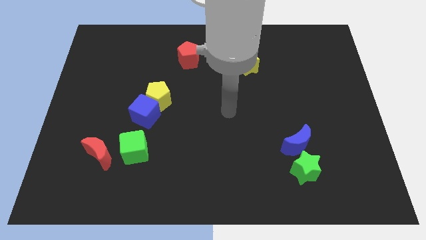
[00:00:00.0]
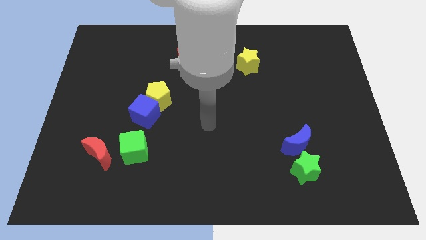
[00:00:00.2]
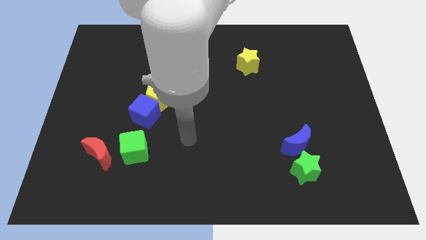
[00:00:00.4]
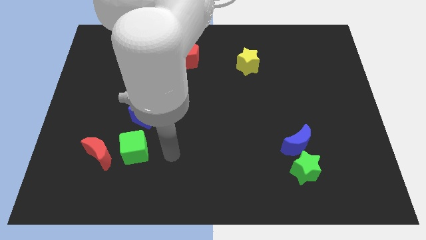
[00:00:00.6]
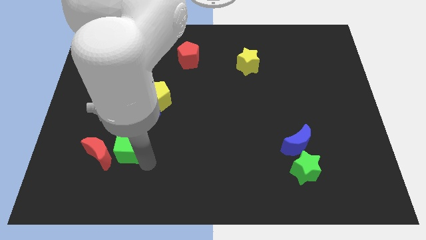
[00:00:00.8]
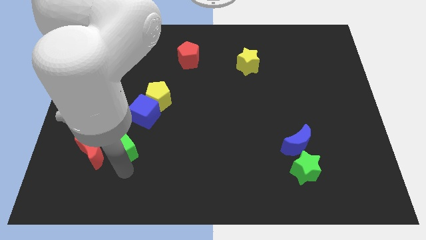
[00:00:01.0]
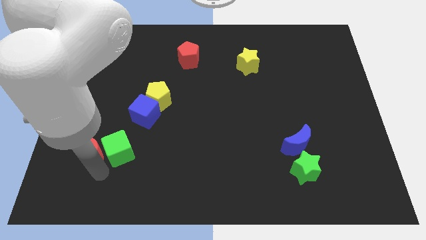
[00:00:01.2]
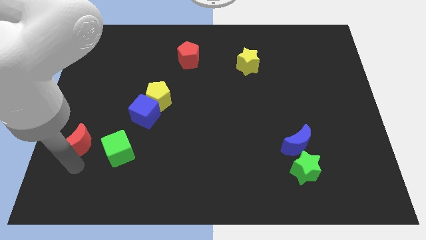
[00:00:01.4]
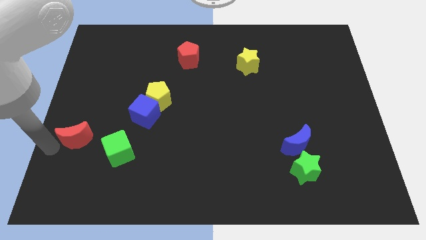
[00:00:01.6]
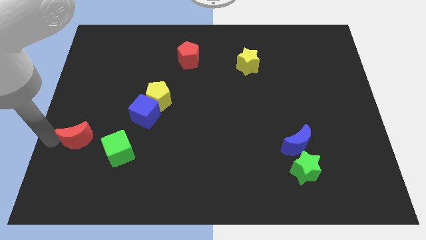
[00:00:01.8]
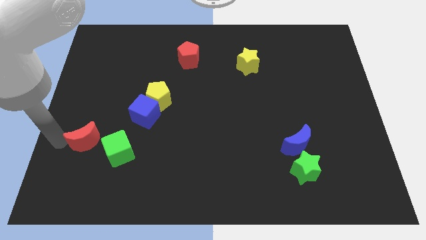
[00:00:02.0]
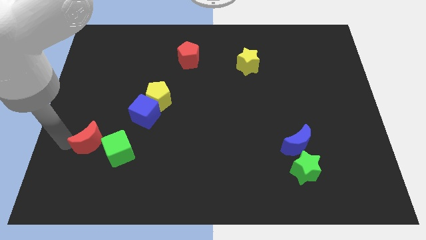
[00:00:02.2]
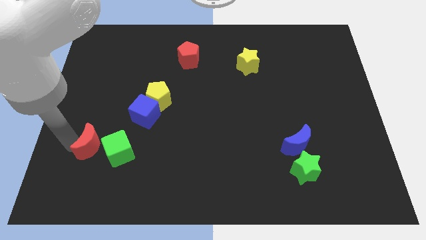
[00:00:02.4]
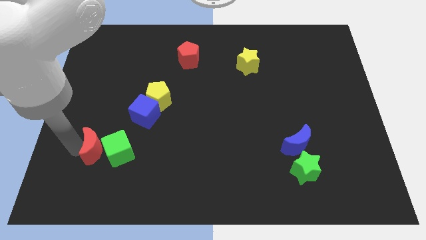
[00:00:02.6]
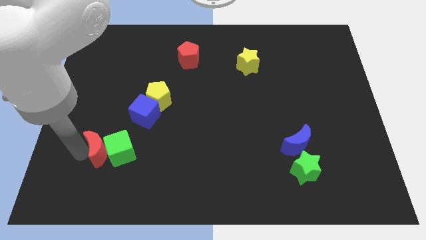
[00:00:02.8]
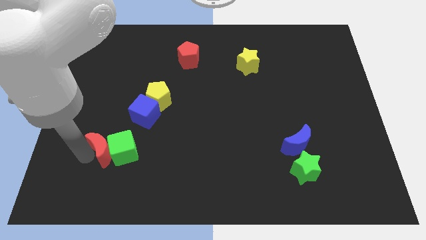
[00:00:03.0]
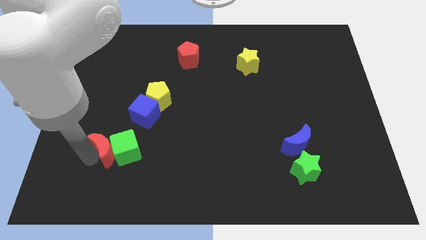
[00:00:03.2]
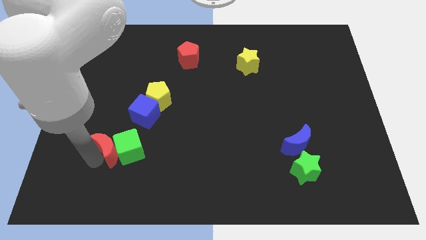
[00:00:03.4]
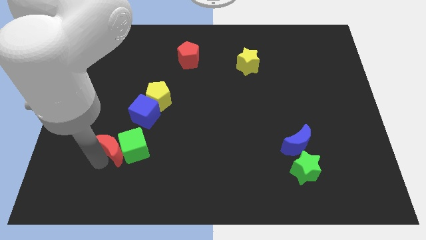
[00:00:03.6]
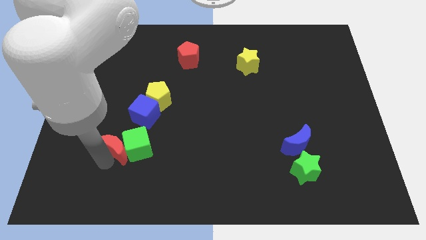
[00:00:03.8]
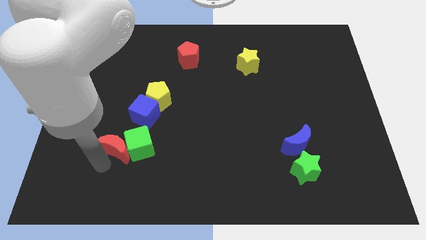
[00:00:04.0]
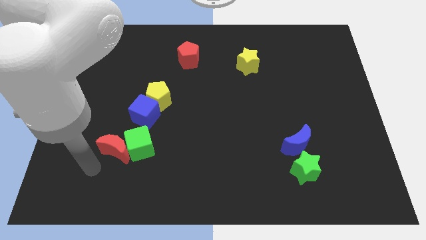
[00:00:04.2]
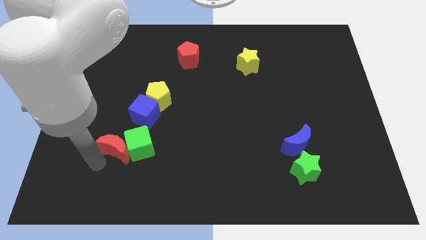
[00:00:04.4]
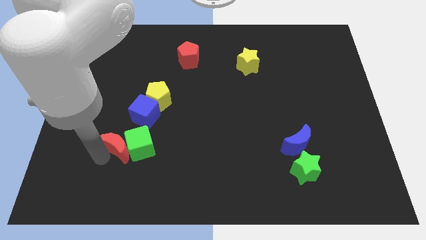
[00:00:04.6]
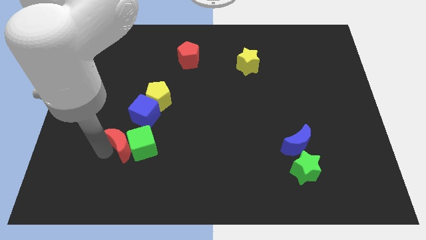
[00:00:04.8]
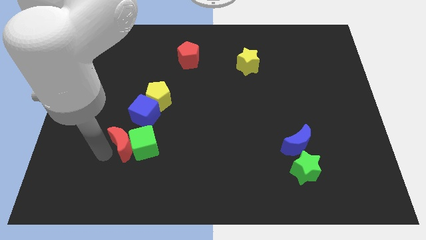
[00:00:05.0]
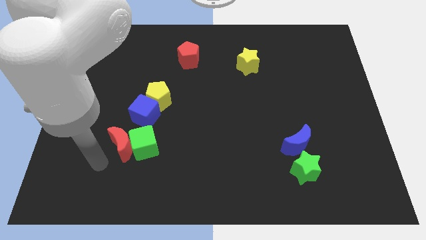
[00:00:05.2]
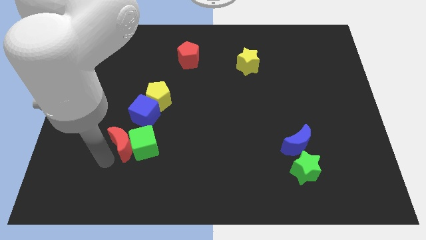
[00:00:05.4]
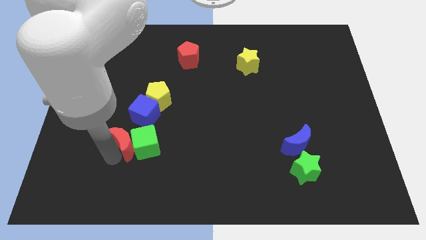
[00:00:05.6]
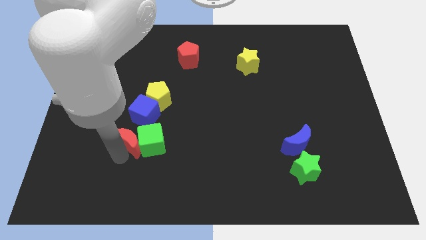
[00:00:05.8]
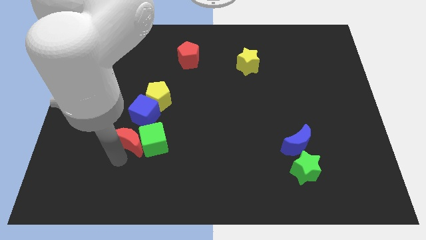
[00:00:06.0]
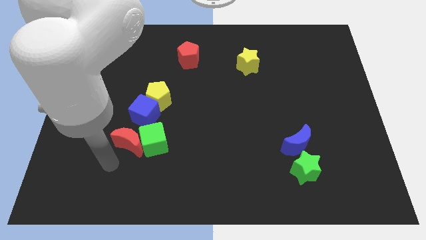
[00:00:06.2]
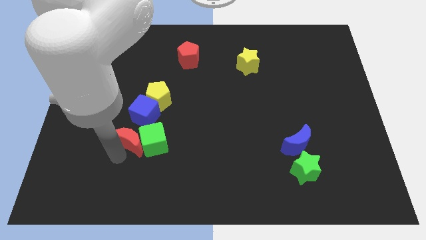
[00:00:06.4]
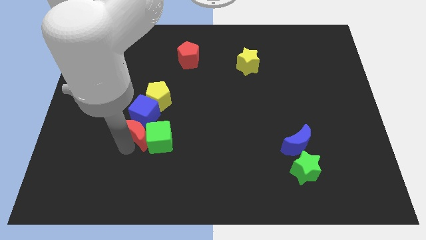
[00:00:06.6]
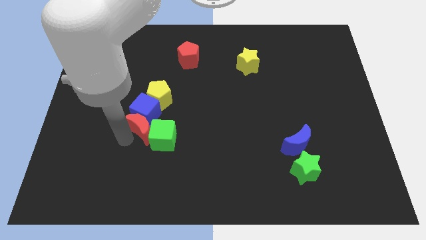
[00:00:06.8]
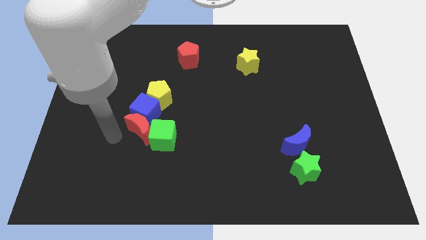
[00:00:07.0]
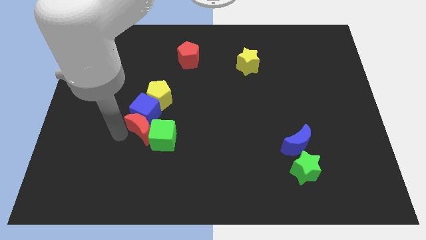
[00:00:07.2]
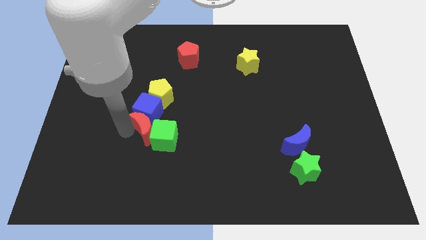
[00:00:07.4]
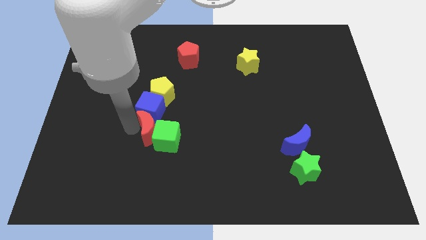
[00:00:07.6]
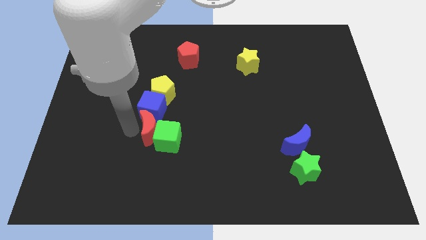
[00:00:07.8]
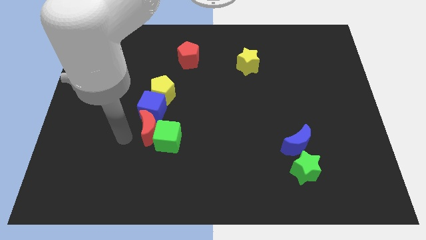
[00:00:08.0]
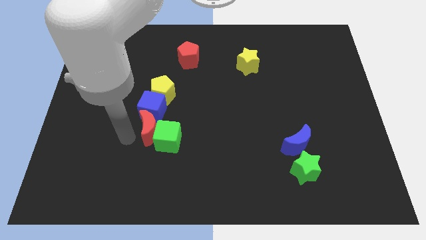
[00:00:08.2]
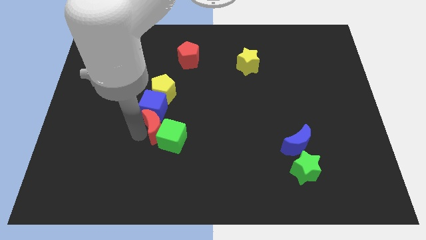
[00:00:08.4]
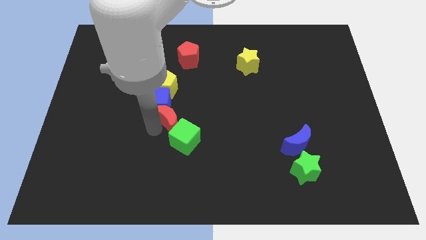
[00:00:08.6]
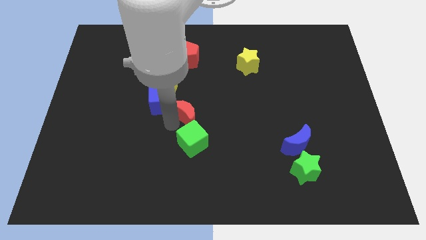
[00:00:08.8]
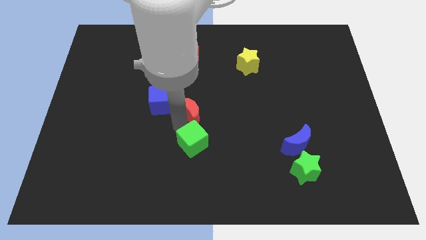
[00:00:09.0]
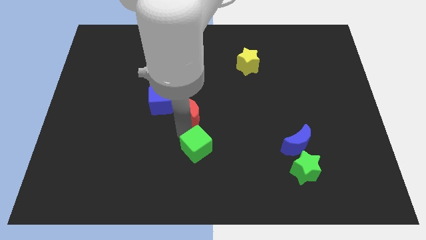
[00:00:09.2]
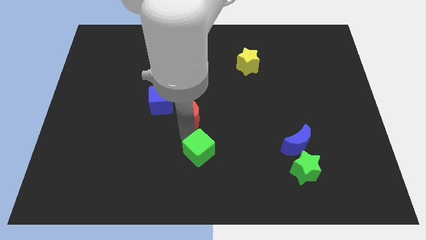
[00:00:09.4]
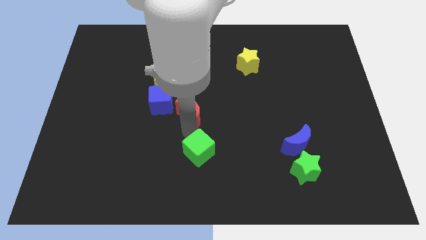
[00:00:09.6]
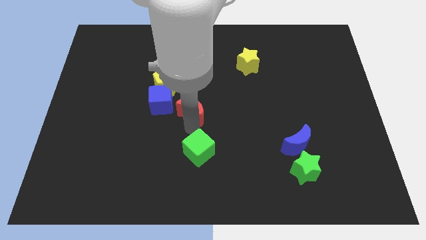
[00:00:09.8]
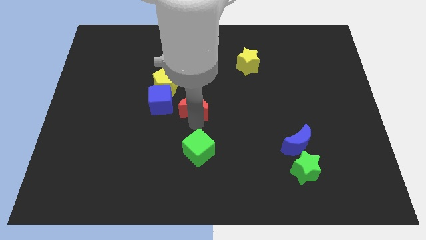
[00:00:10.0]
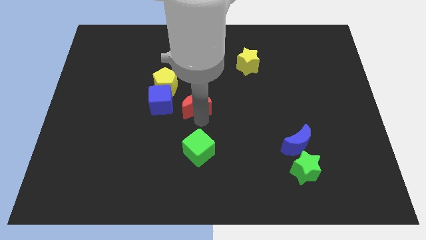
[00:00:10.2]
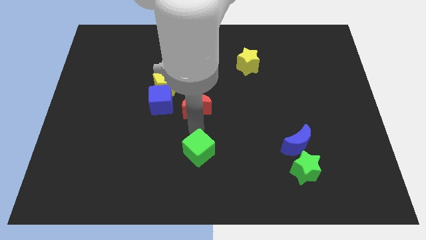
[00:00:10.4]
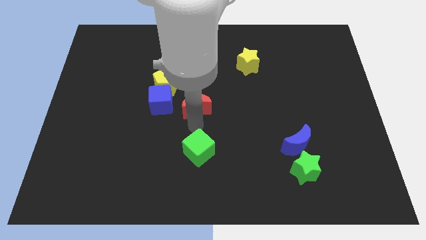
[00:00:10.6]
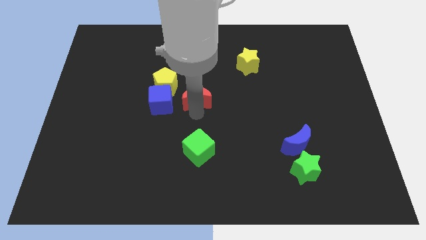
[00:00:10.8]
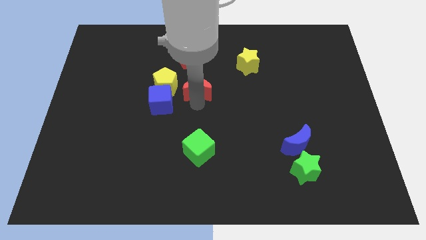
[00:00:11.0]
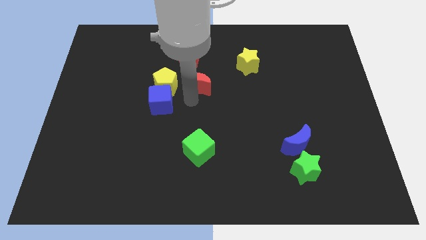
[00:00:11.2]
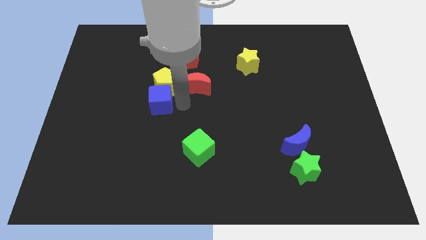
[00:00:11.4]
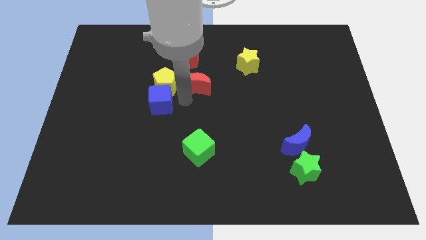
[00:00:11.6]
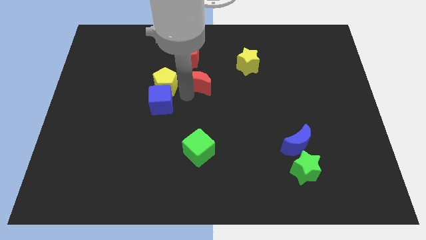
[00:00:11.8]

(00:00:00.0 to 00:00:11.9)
put the red moon to the bottom right of the red pentagon

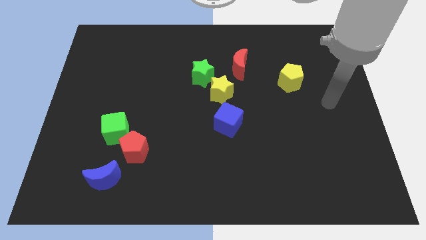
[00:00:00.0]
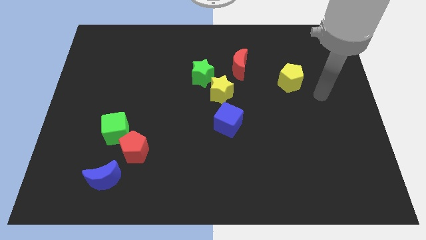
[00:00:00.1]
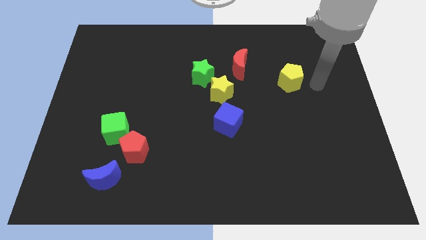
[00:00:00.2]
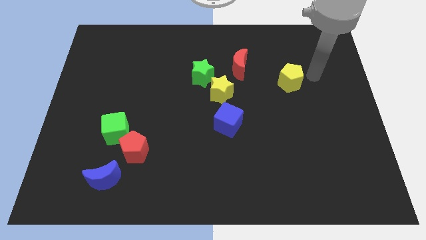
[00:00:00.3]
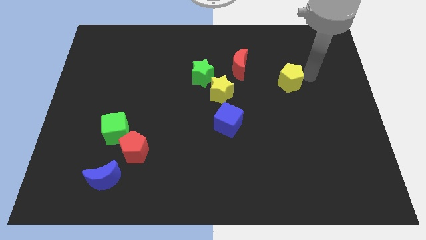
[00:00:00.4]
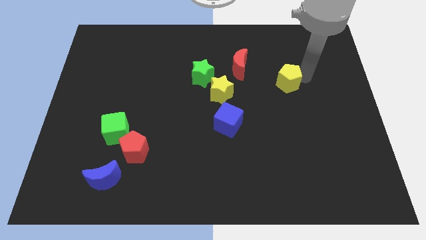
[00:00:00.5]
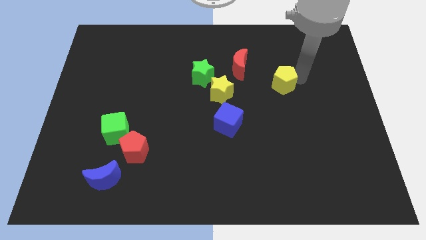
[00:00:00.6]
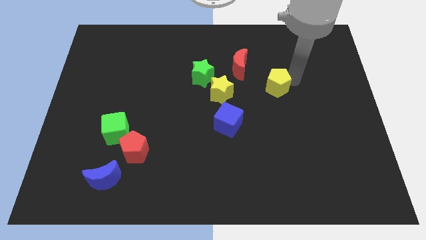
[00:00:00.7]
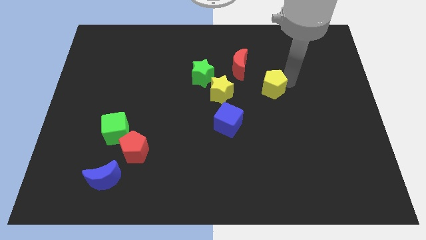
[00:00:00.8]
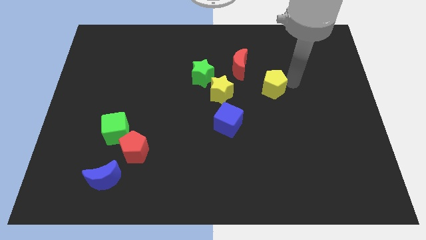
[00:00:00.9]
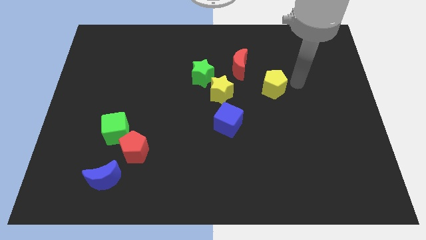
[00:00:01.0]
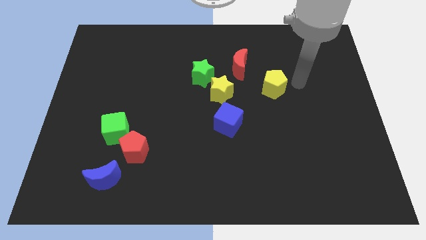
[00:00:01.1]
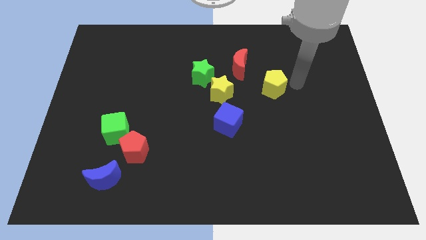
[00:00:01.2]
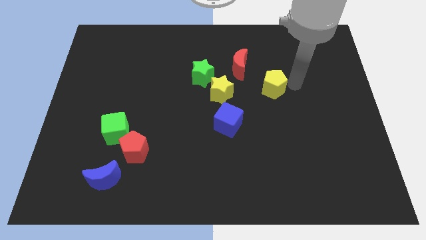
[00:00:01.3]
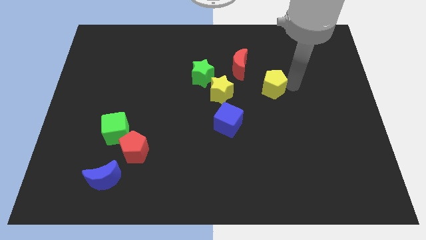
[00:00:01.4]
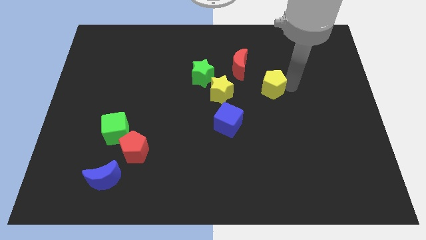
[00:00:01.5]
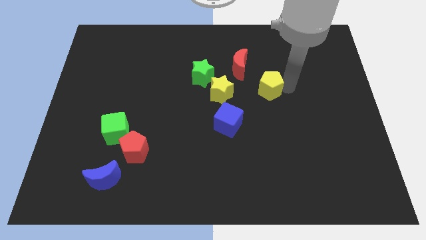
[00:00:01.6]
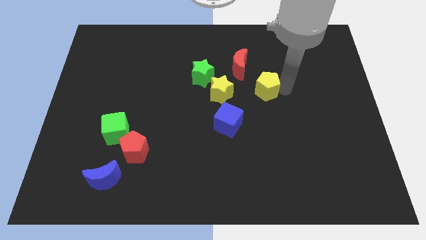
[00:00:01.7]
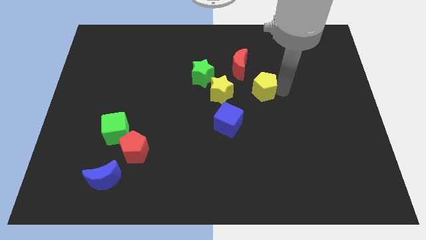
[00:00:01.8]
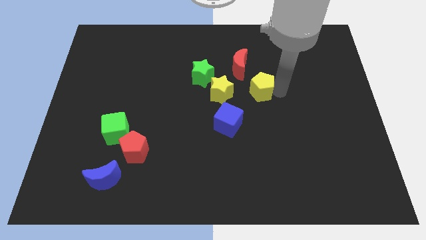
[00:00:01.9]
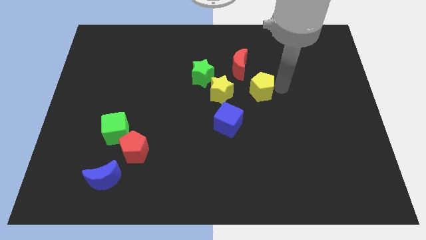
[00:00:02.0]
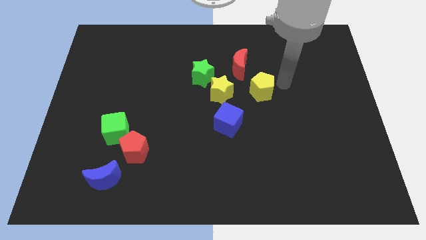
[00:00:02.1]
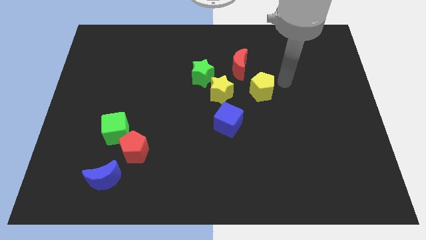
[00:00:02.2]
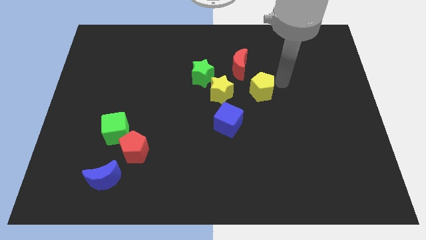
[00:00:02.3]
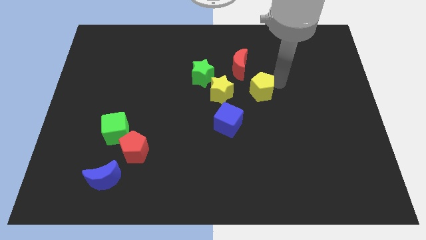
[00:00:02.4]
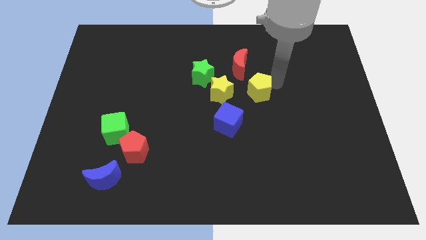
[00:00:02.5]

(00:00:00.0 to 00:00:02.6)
put the yellow pentagon to the bottom side of the red moon
